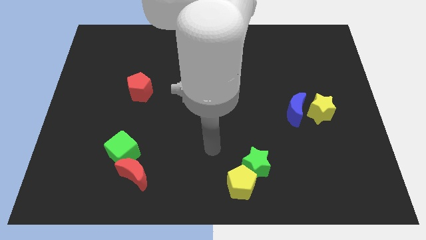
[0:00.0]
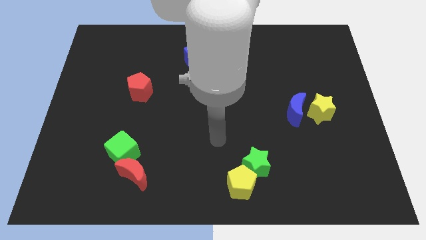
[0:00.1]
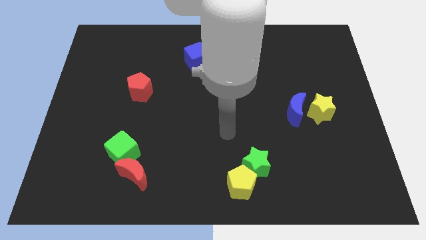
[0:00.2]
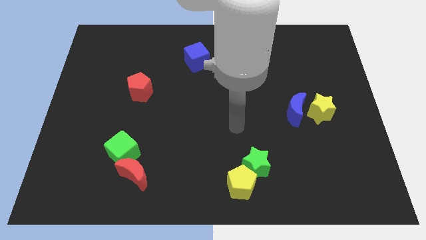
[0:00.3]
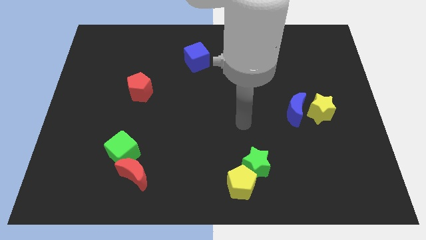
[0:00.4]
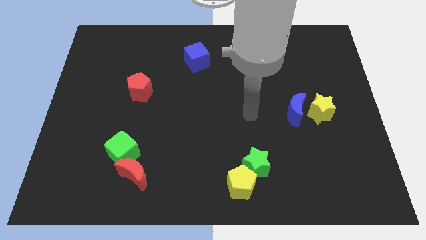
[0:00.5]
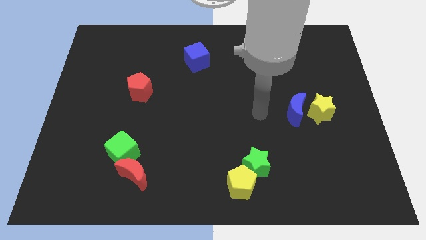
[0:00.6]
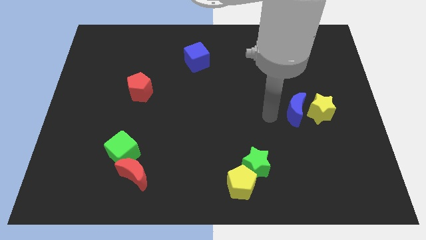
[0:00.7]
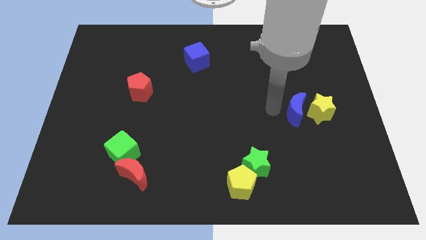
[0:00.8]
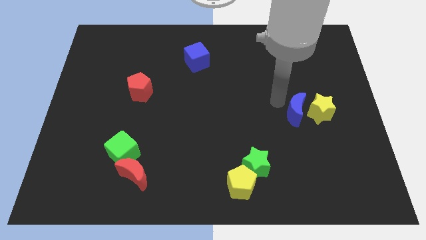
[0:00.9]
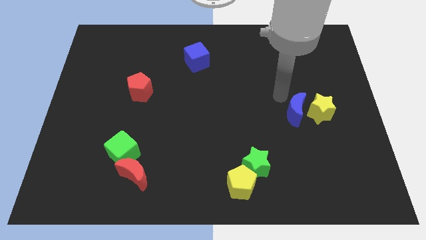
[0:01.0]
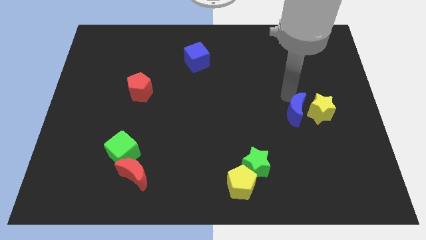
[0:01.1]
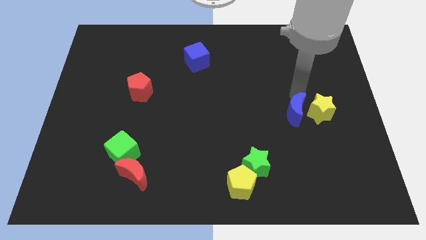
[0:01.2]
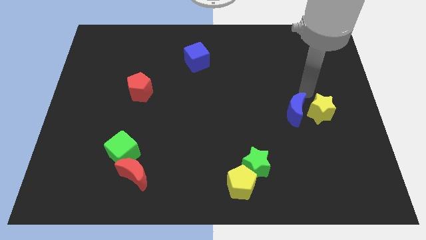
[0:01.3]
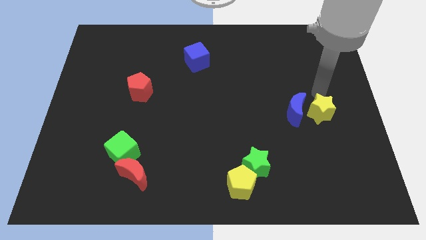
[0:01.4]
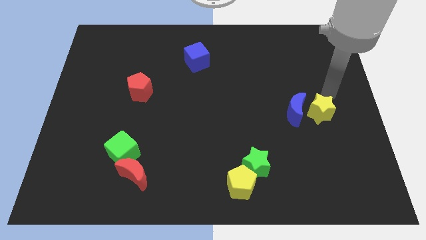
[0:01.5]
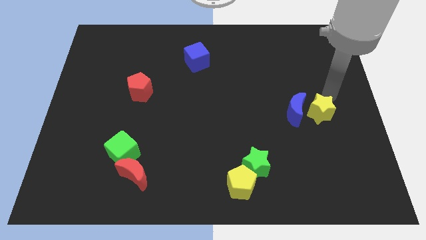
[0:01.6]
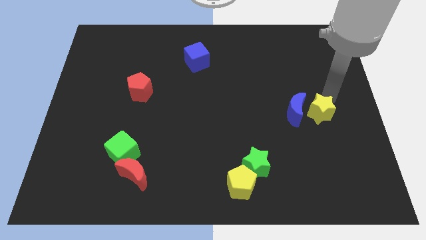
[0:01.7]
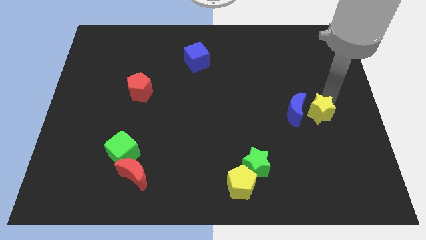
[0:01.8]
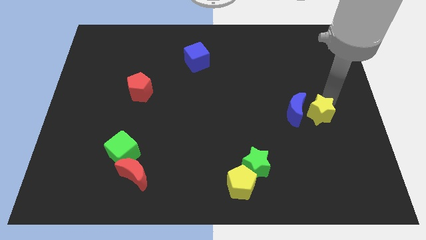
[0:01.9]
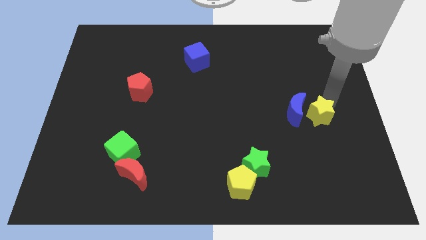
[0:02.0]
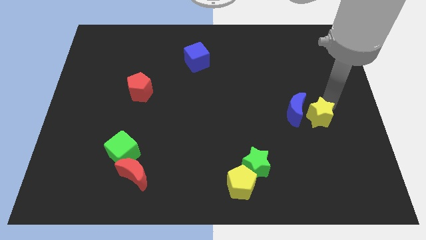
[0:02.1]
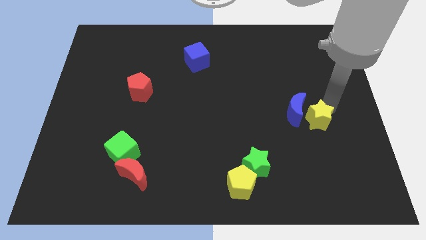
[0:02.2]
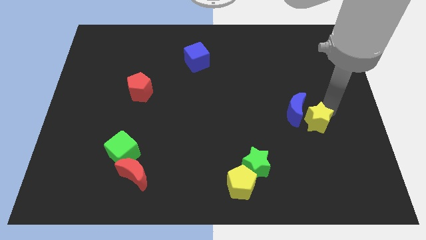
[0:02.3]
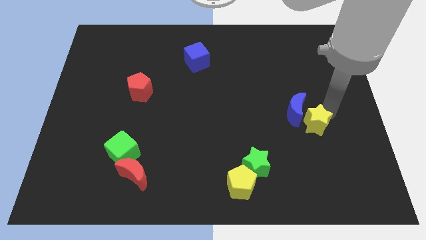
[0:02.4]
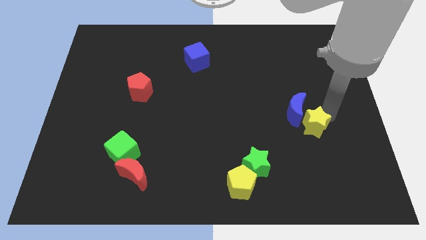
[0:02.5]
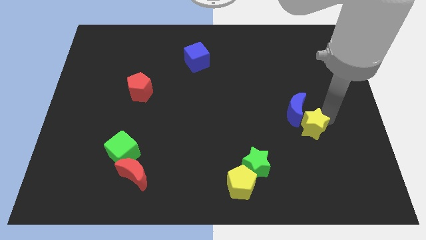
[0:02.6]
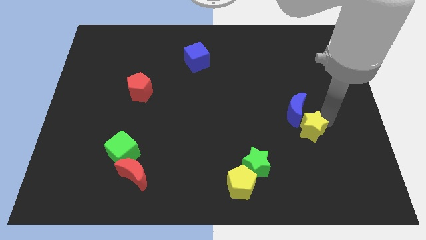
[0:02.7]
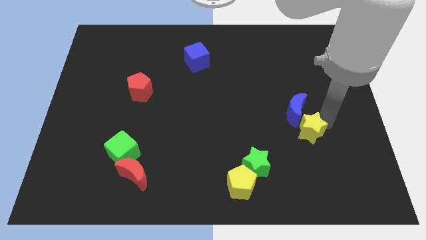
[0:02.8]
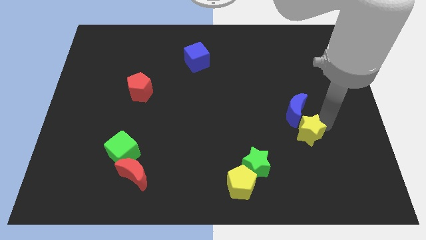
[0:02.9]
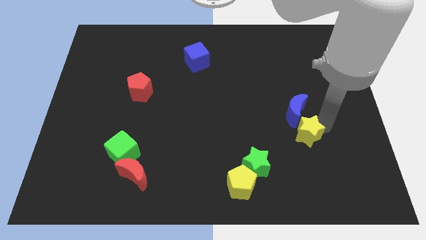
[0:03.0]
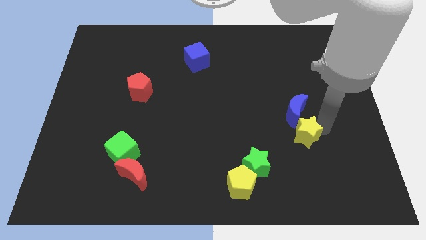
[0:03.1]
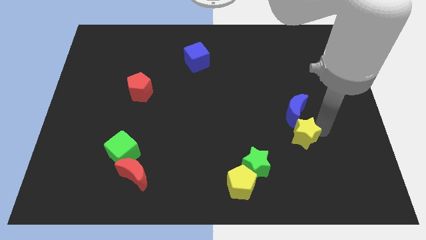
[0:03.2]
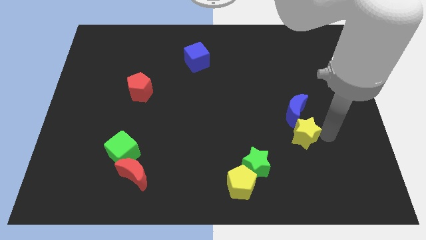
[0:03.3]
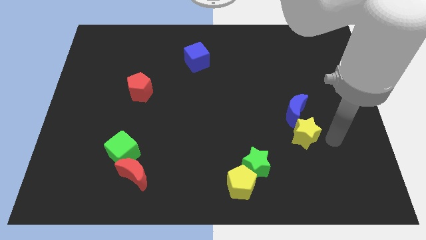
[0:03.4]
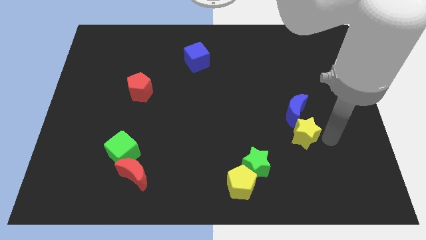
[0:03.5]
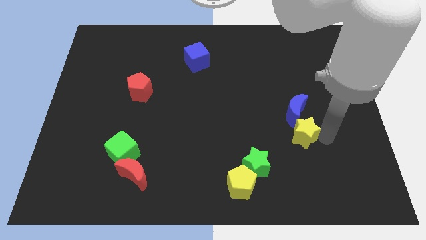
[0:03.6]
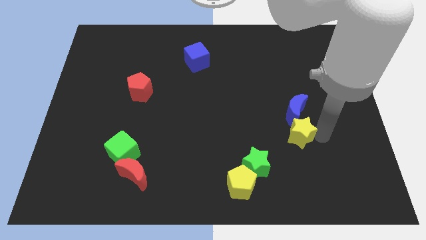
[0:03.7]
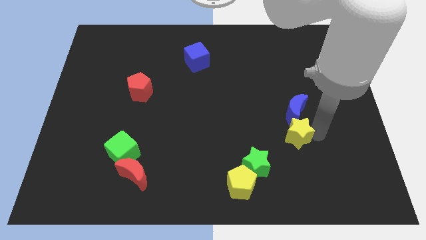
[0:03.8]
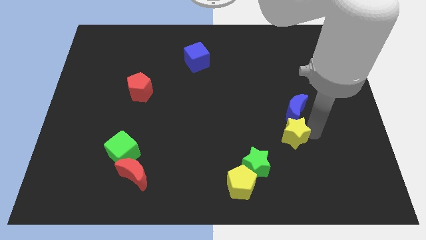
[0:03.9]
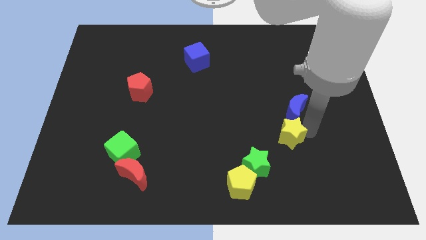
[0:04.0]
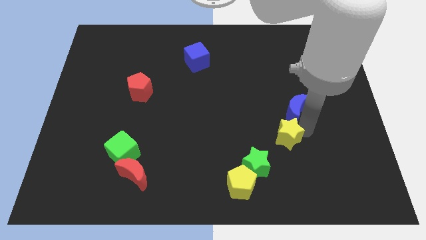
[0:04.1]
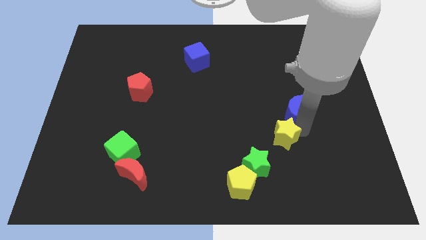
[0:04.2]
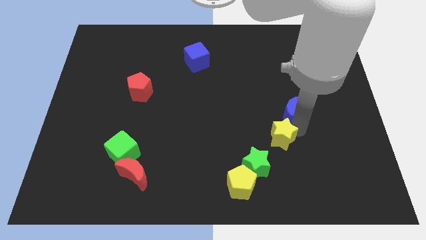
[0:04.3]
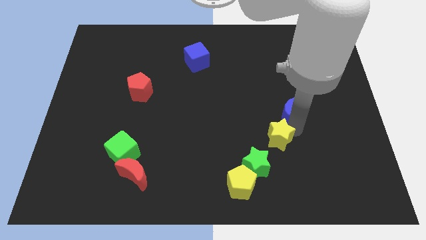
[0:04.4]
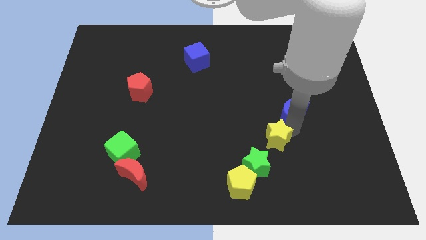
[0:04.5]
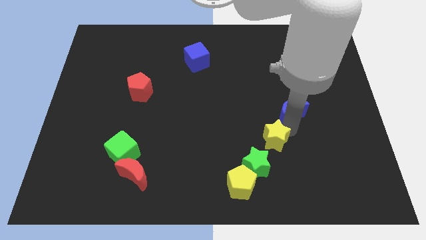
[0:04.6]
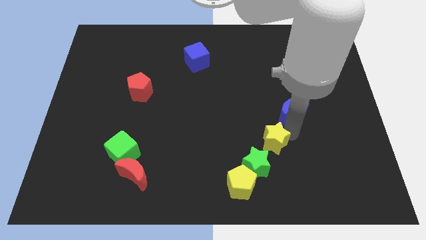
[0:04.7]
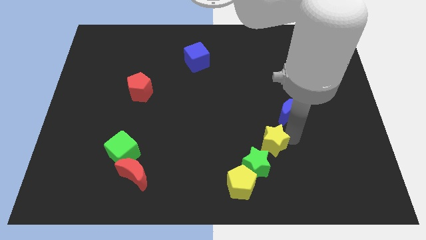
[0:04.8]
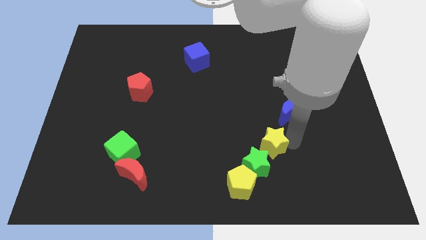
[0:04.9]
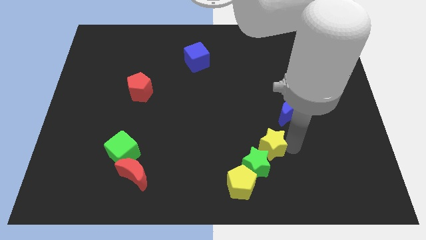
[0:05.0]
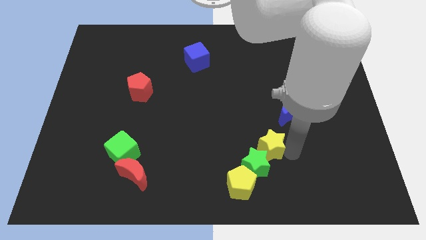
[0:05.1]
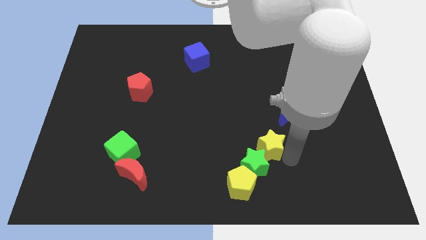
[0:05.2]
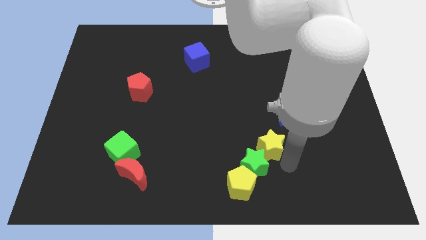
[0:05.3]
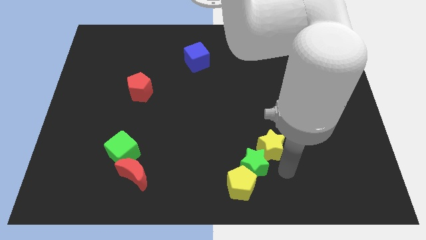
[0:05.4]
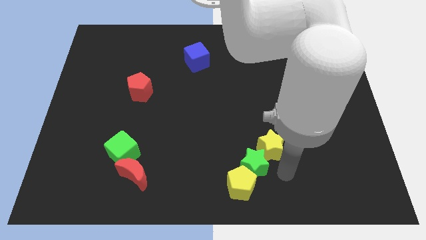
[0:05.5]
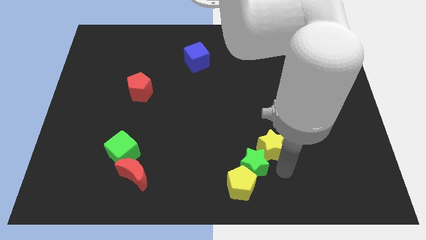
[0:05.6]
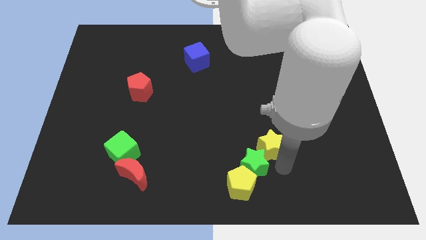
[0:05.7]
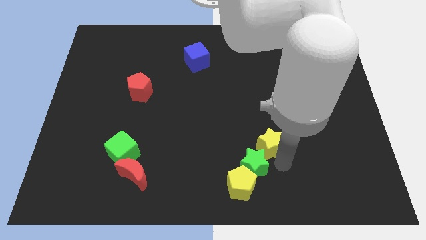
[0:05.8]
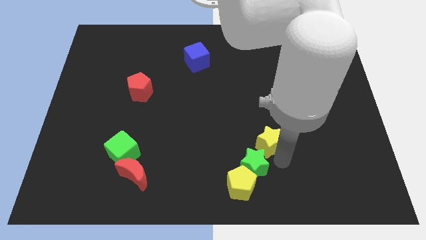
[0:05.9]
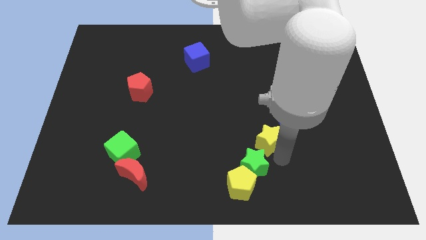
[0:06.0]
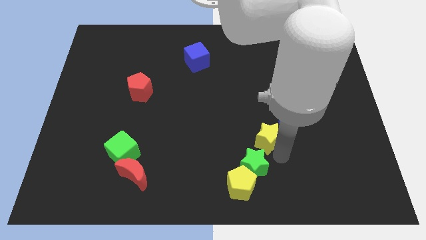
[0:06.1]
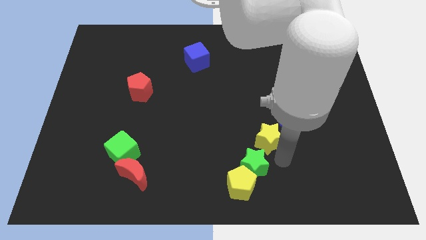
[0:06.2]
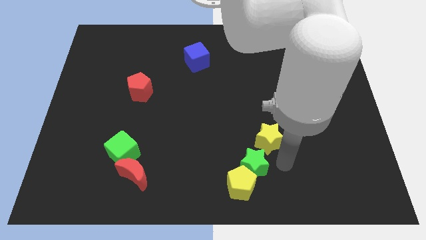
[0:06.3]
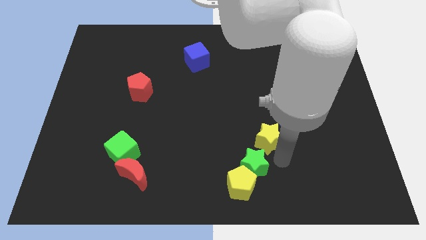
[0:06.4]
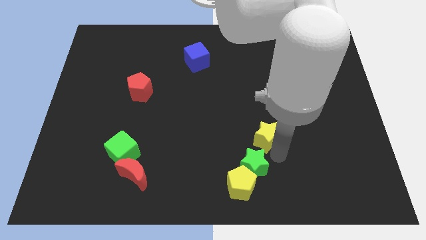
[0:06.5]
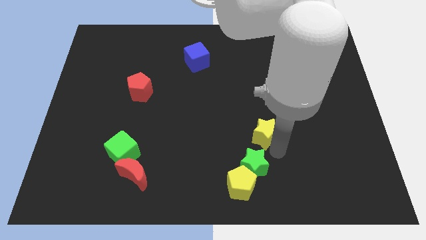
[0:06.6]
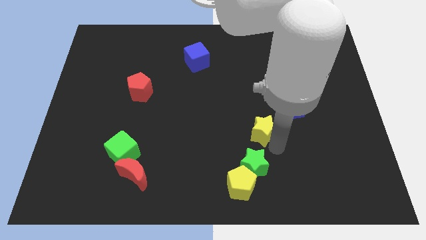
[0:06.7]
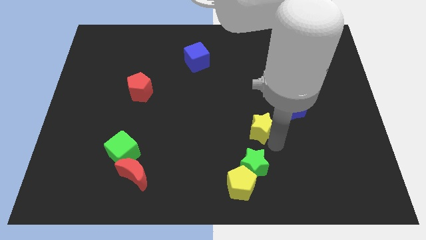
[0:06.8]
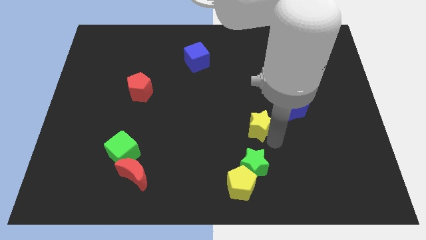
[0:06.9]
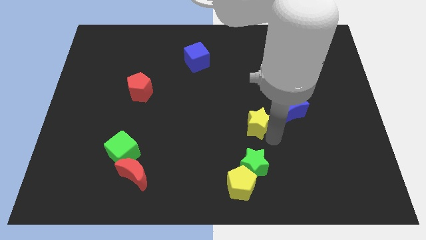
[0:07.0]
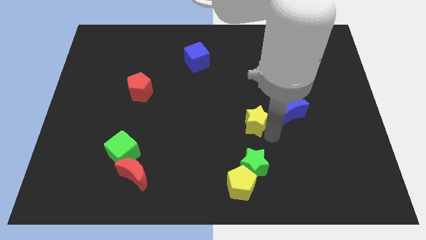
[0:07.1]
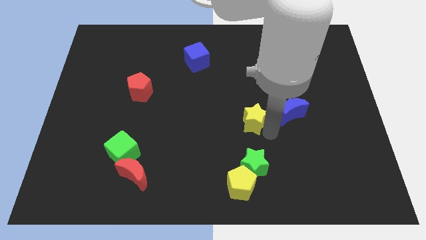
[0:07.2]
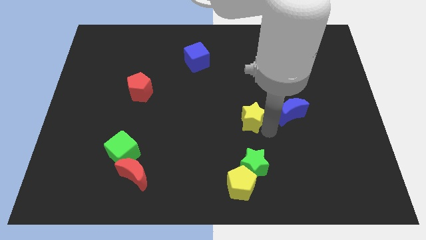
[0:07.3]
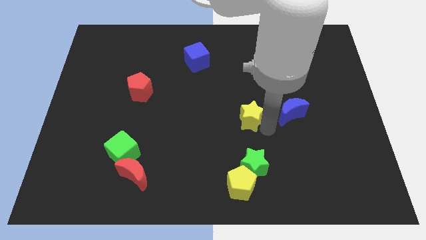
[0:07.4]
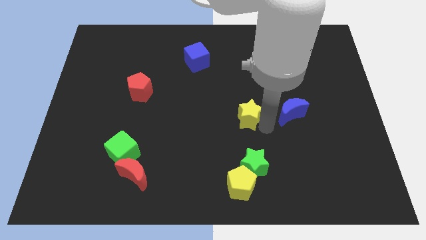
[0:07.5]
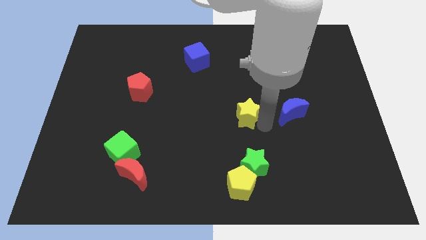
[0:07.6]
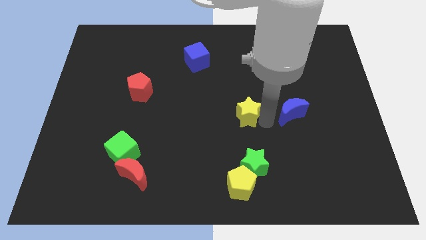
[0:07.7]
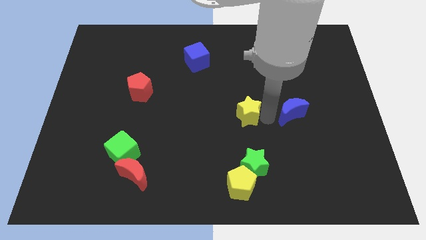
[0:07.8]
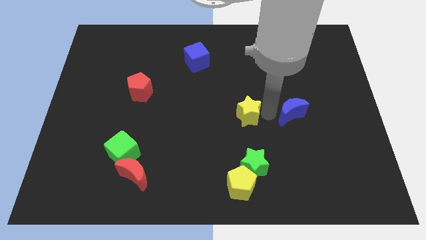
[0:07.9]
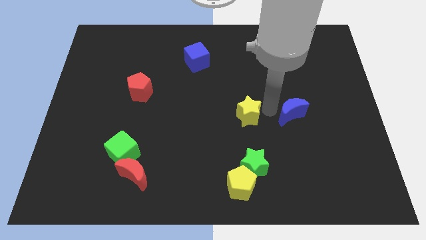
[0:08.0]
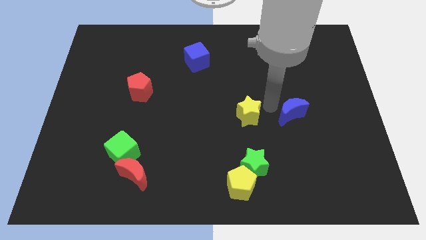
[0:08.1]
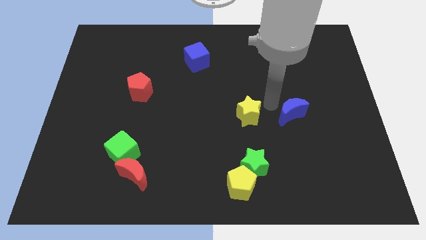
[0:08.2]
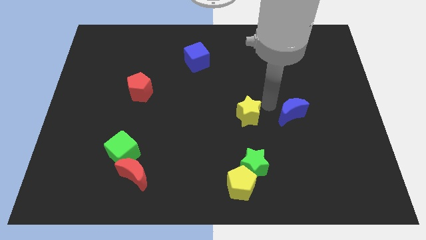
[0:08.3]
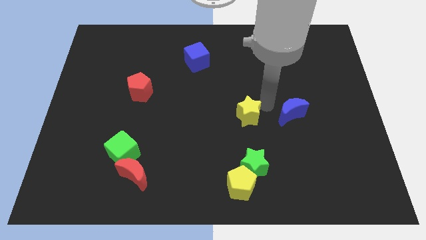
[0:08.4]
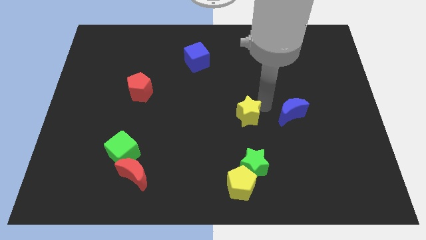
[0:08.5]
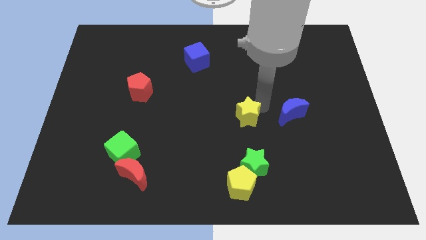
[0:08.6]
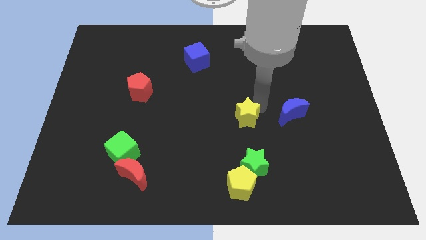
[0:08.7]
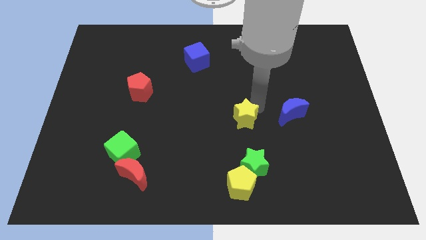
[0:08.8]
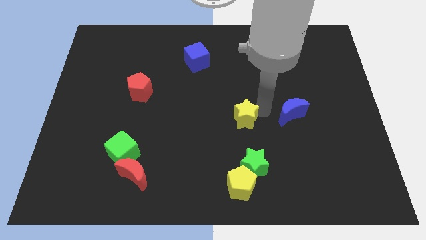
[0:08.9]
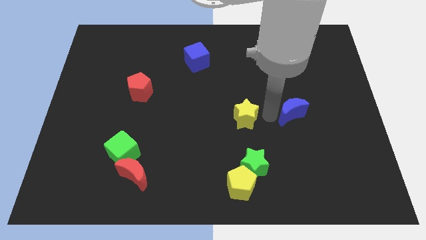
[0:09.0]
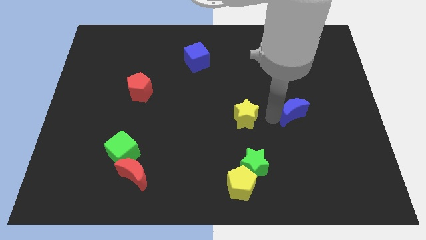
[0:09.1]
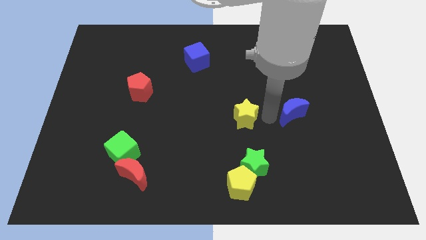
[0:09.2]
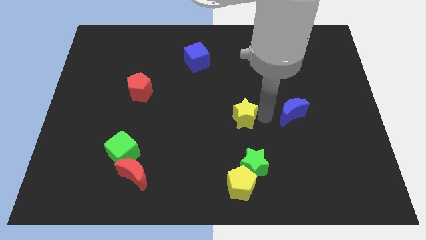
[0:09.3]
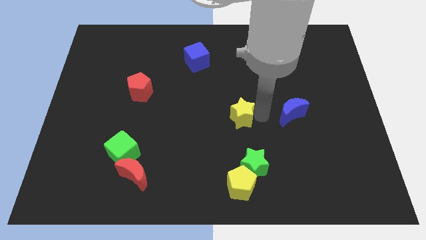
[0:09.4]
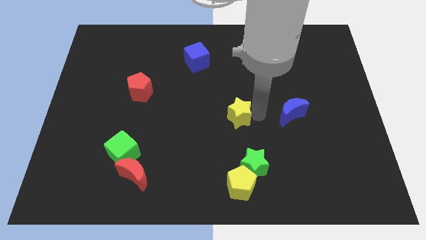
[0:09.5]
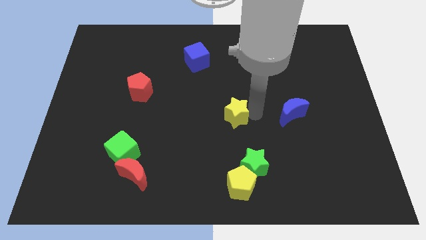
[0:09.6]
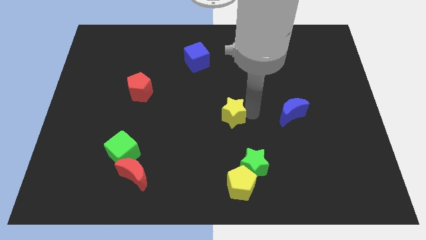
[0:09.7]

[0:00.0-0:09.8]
push the yellow star left
